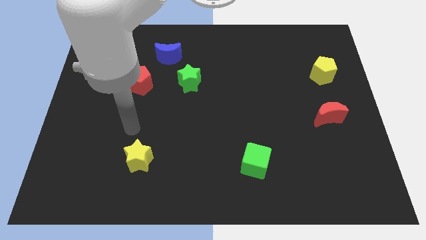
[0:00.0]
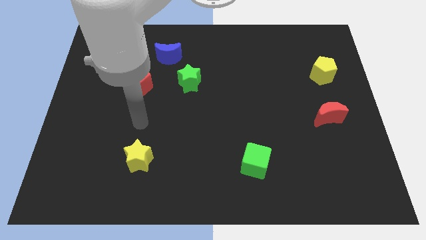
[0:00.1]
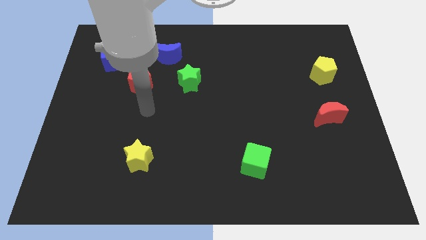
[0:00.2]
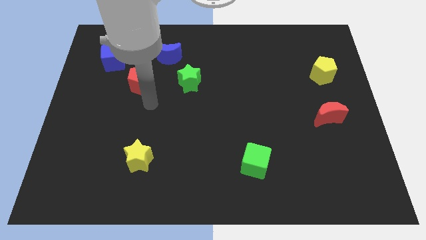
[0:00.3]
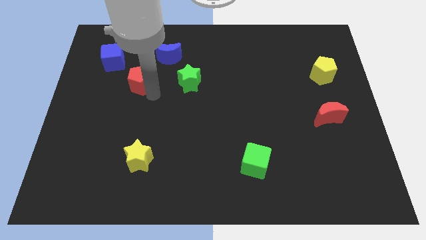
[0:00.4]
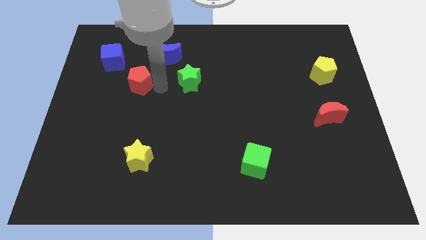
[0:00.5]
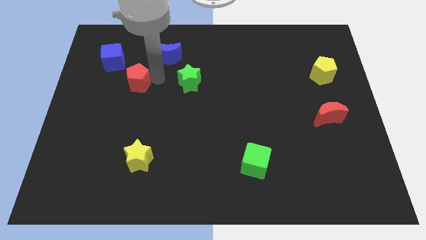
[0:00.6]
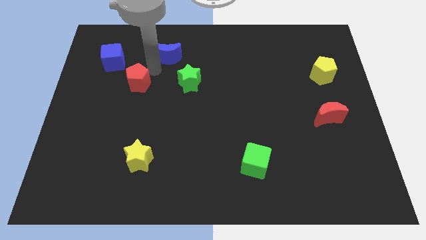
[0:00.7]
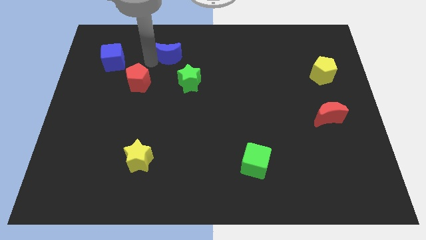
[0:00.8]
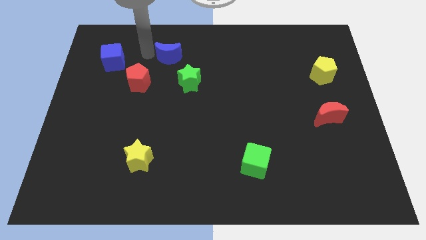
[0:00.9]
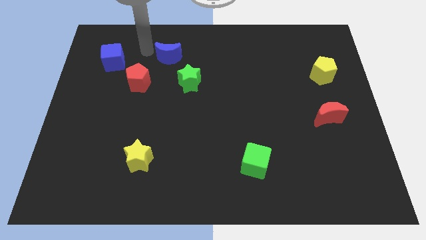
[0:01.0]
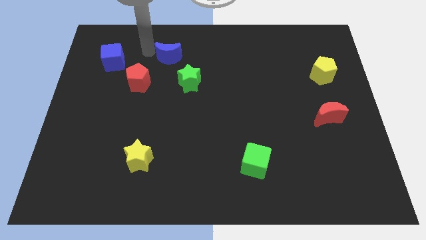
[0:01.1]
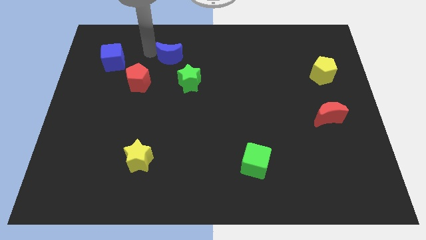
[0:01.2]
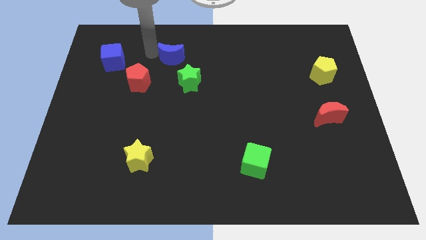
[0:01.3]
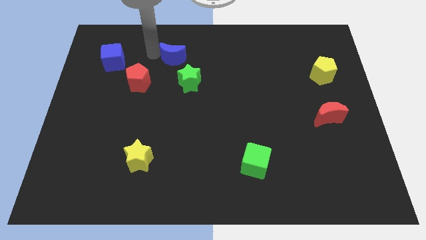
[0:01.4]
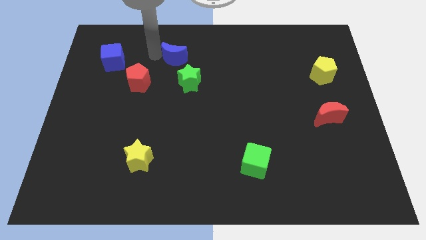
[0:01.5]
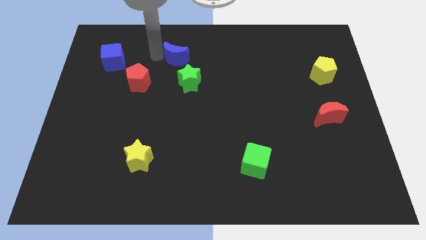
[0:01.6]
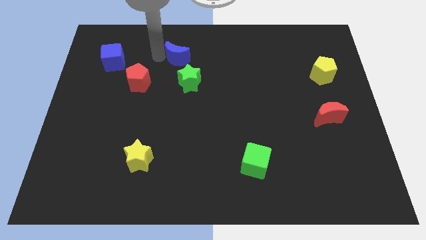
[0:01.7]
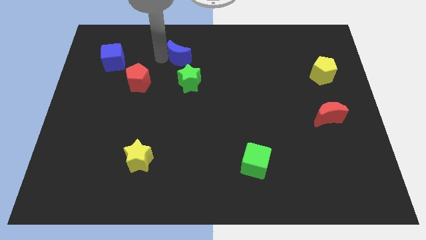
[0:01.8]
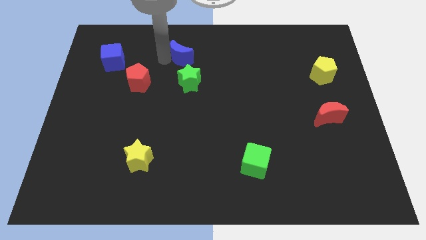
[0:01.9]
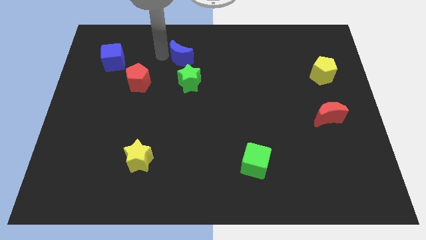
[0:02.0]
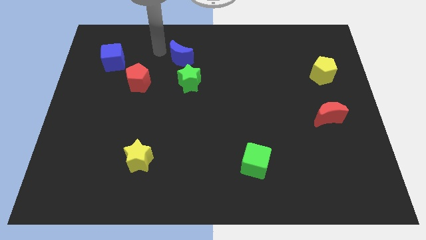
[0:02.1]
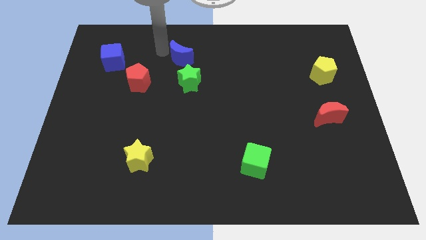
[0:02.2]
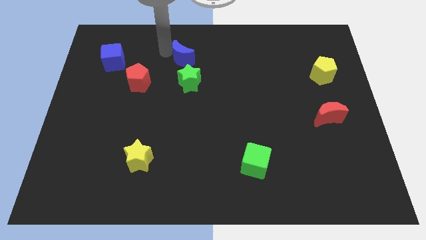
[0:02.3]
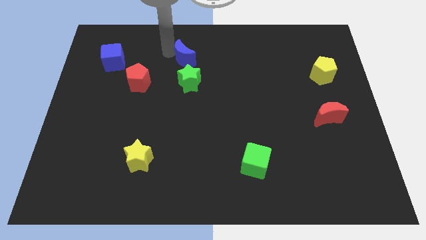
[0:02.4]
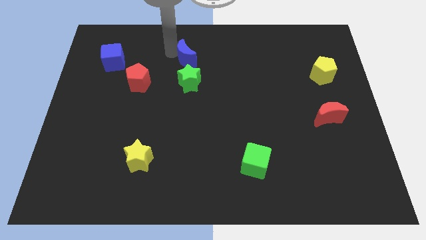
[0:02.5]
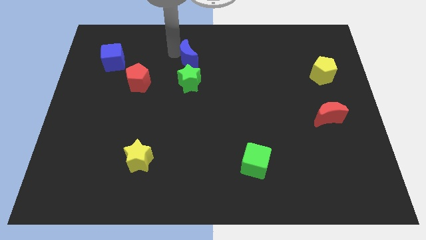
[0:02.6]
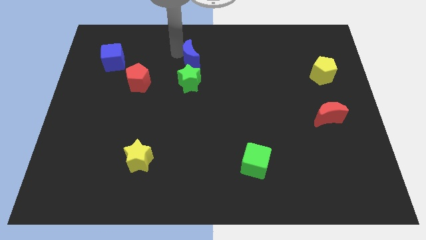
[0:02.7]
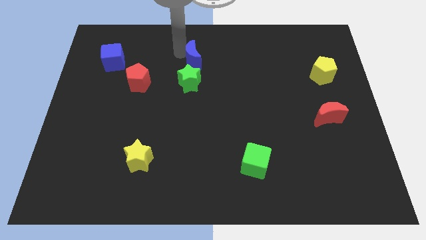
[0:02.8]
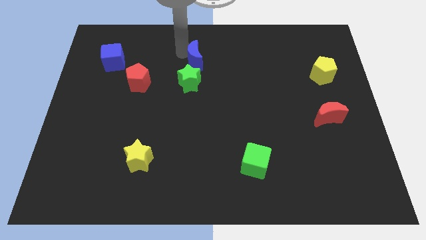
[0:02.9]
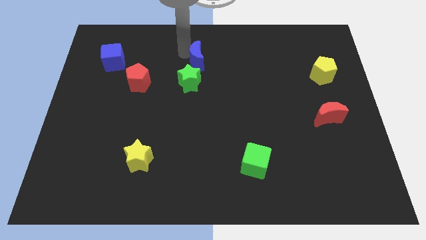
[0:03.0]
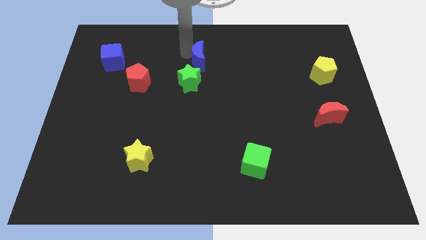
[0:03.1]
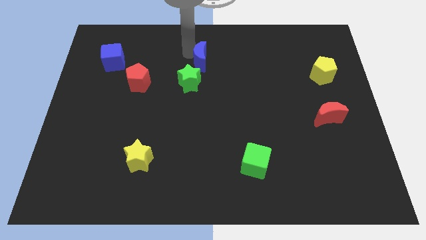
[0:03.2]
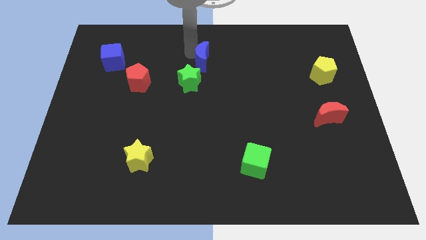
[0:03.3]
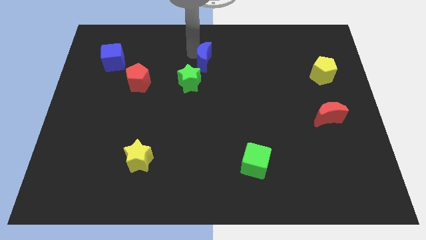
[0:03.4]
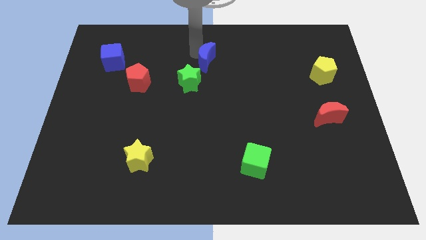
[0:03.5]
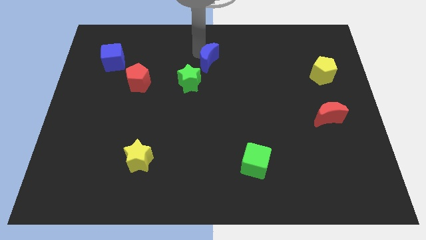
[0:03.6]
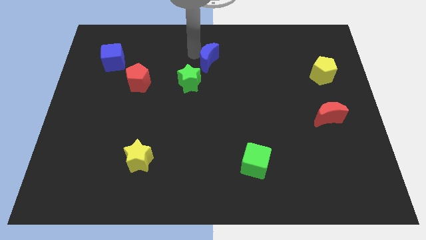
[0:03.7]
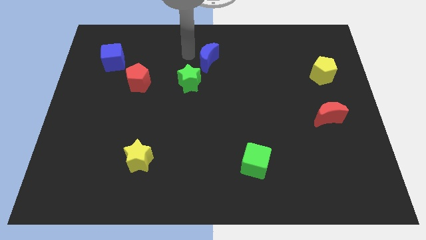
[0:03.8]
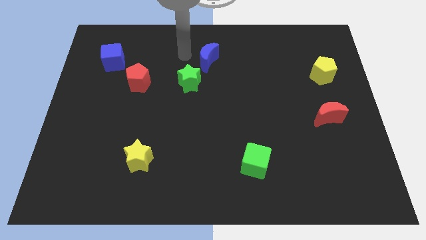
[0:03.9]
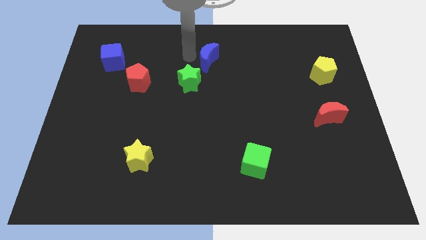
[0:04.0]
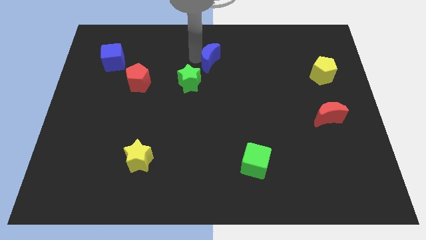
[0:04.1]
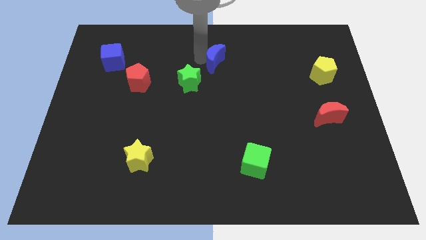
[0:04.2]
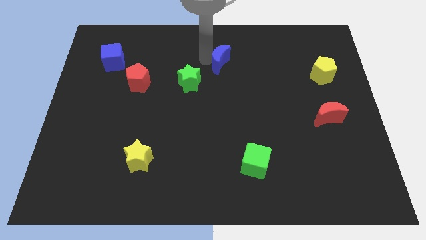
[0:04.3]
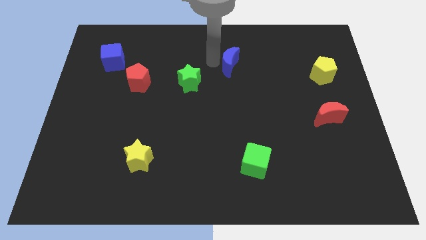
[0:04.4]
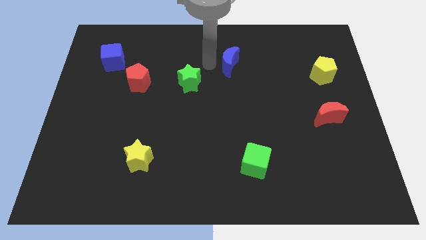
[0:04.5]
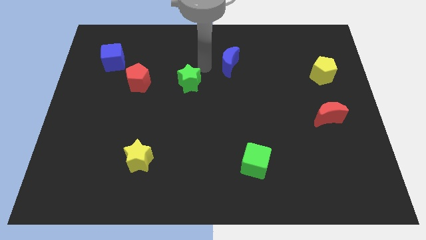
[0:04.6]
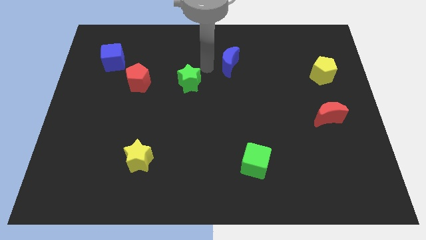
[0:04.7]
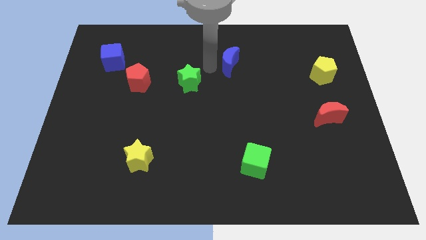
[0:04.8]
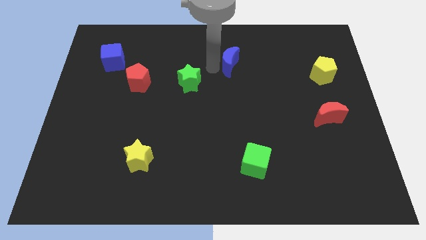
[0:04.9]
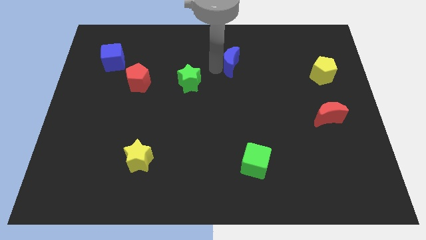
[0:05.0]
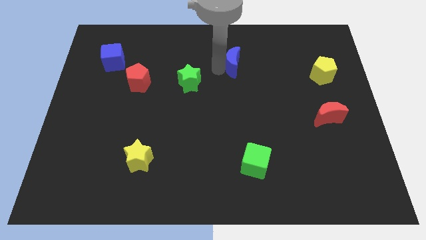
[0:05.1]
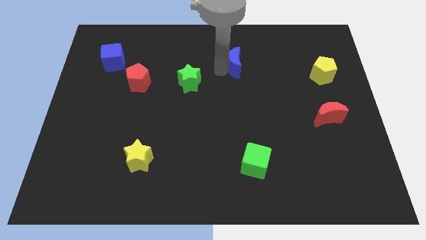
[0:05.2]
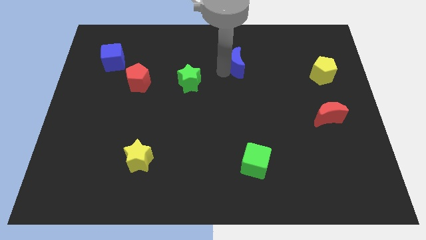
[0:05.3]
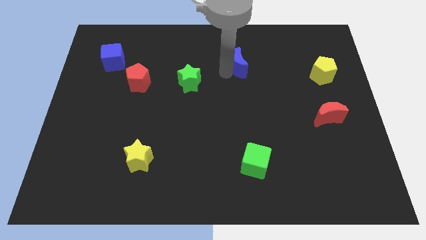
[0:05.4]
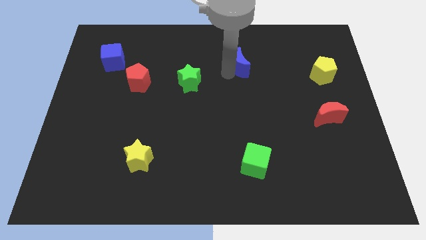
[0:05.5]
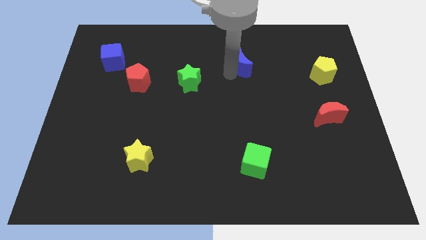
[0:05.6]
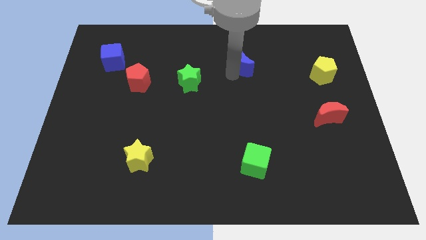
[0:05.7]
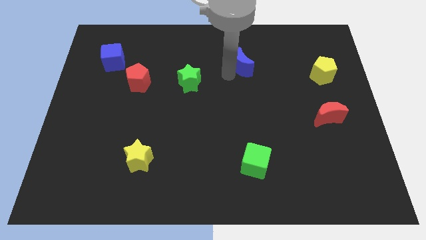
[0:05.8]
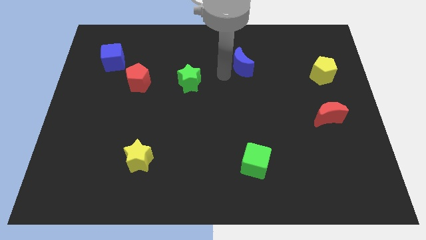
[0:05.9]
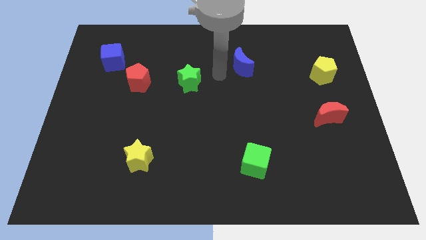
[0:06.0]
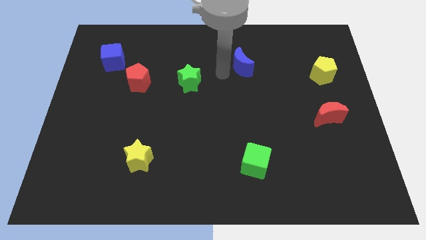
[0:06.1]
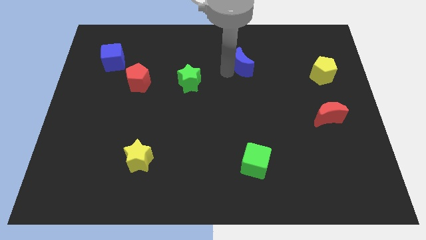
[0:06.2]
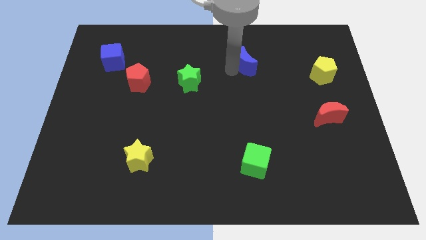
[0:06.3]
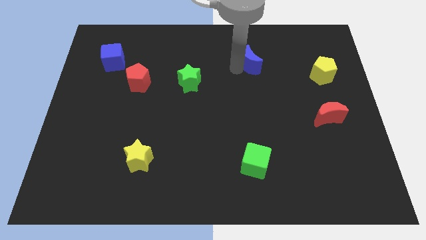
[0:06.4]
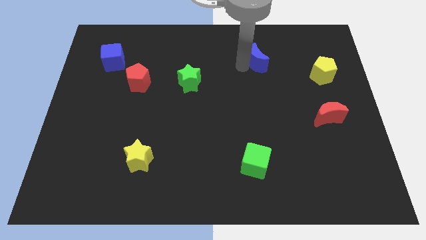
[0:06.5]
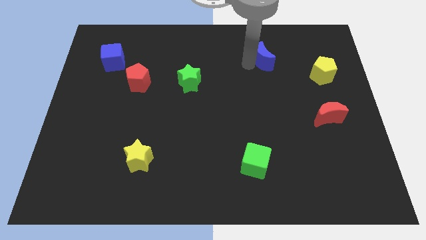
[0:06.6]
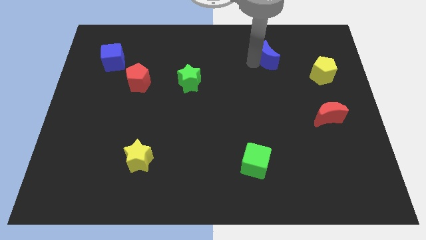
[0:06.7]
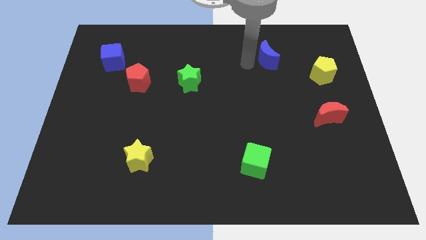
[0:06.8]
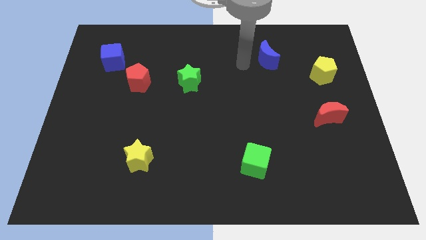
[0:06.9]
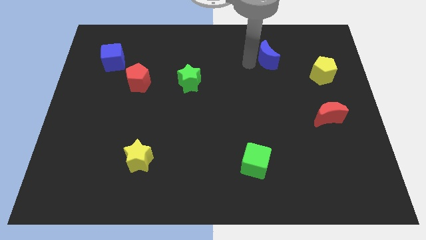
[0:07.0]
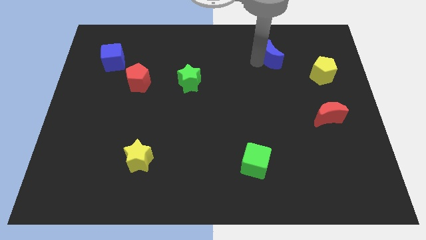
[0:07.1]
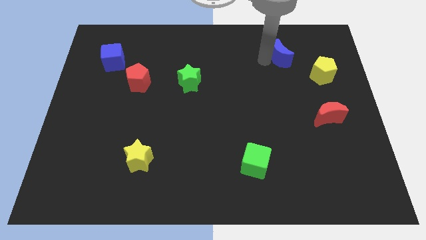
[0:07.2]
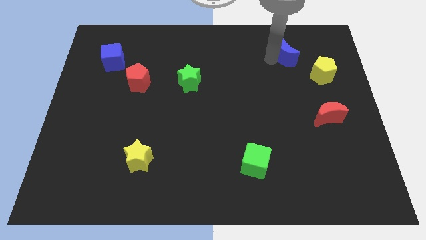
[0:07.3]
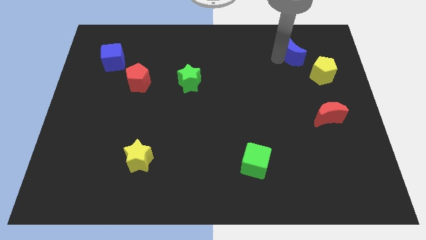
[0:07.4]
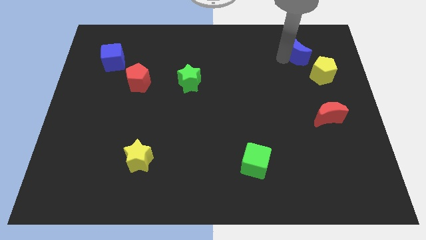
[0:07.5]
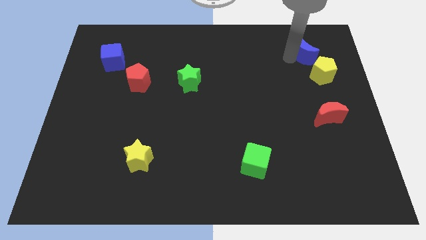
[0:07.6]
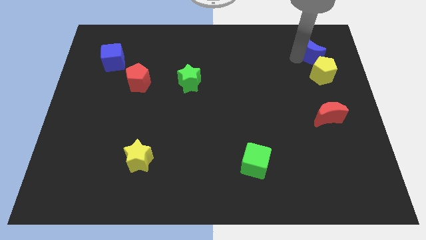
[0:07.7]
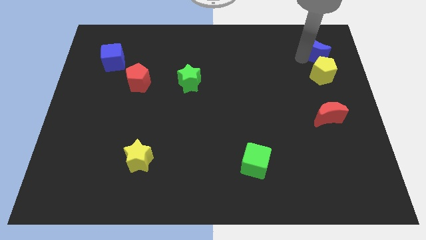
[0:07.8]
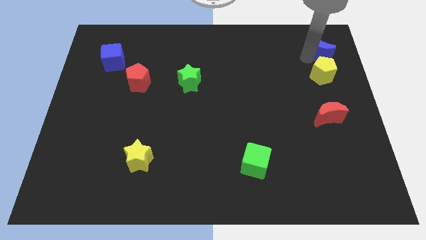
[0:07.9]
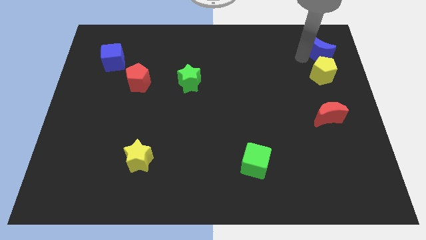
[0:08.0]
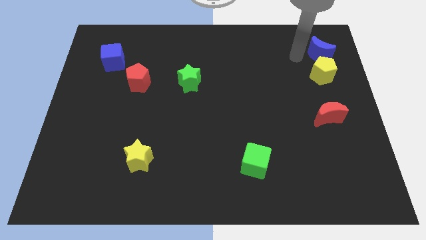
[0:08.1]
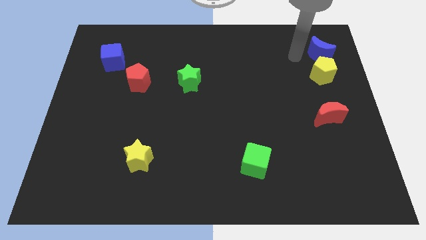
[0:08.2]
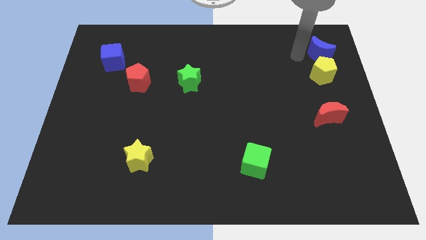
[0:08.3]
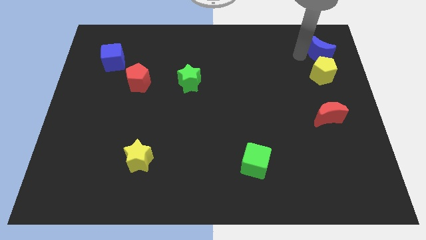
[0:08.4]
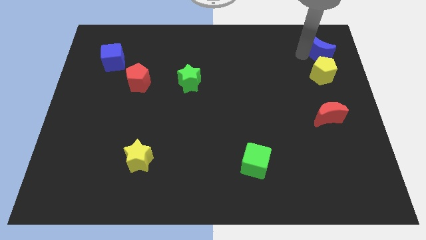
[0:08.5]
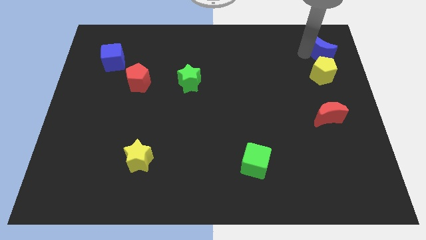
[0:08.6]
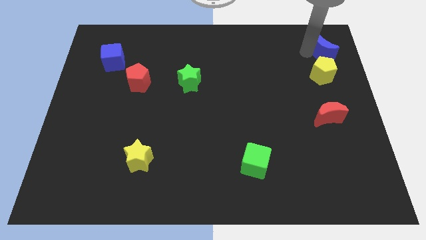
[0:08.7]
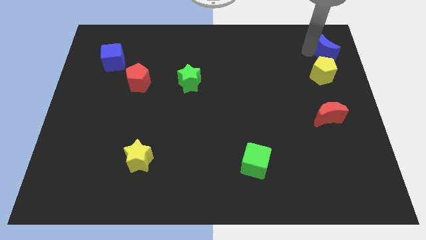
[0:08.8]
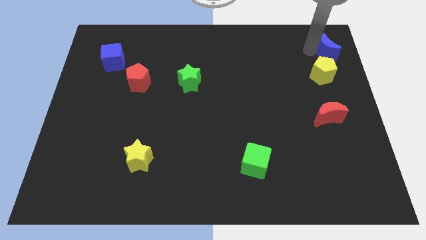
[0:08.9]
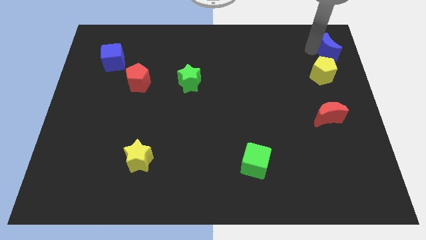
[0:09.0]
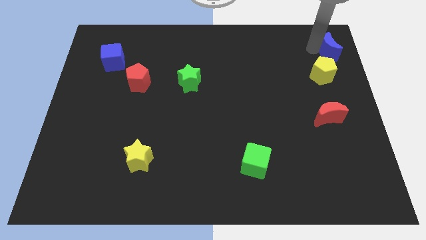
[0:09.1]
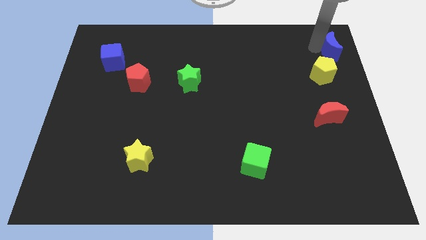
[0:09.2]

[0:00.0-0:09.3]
put the blue moon to the top right of the board
